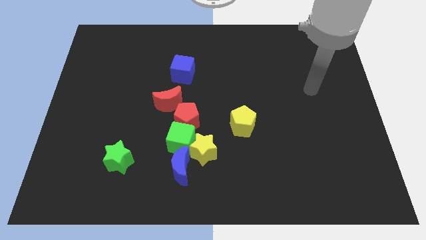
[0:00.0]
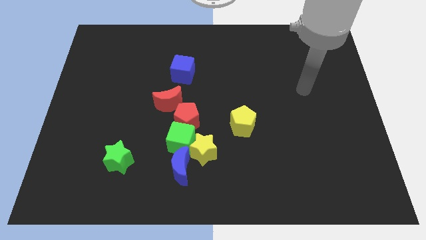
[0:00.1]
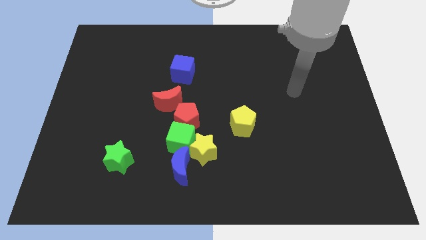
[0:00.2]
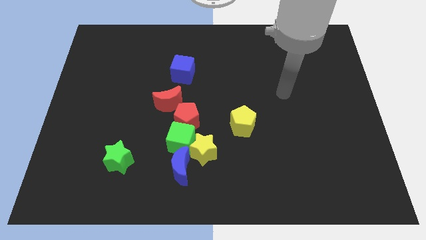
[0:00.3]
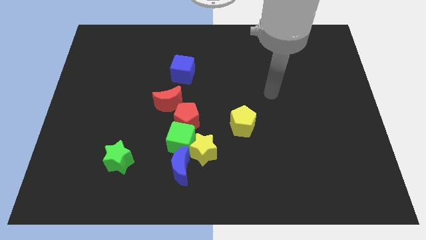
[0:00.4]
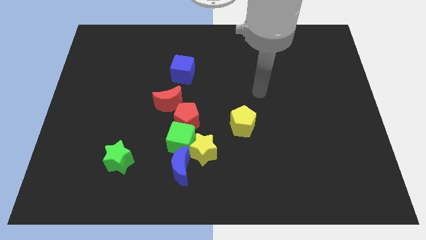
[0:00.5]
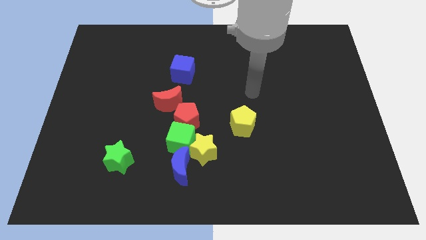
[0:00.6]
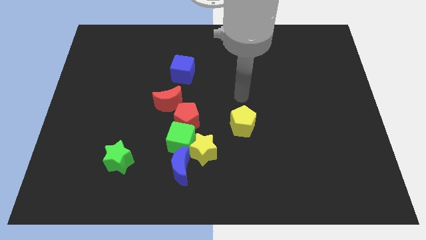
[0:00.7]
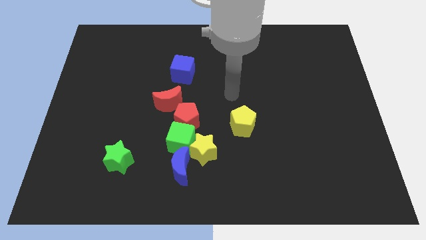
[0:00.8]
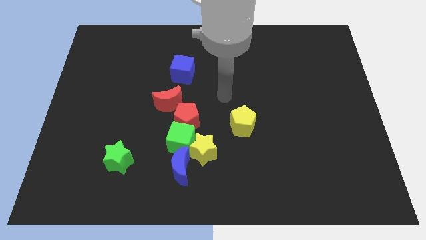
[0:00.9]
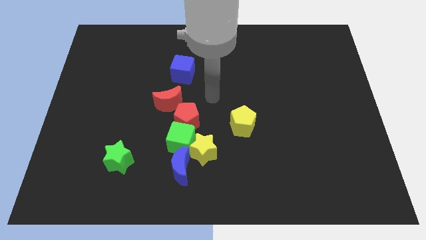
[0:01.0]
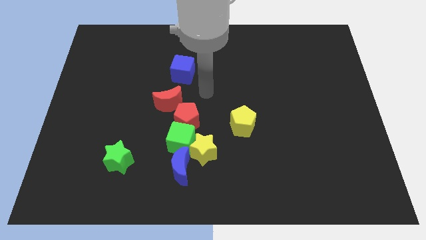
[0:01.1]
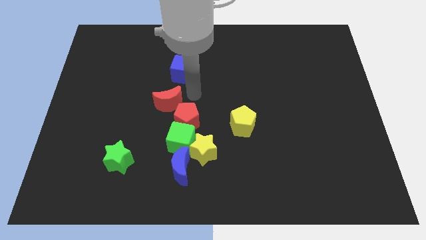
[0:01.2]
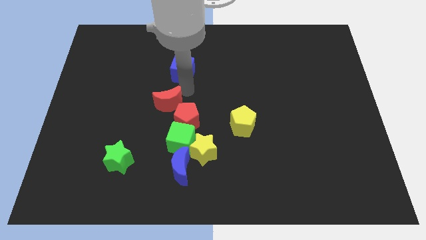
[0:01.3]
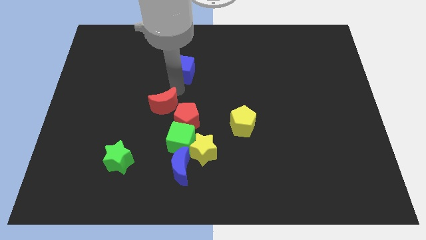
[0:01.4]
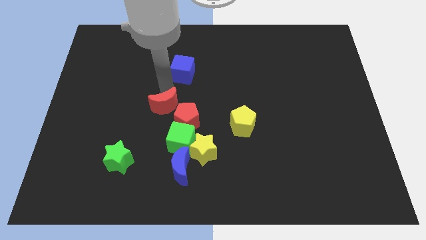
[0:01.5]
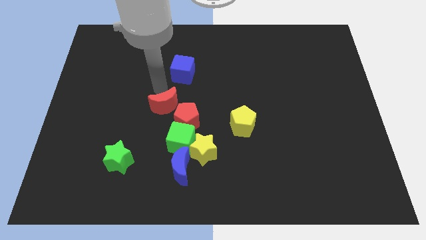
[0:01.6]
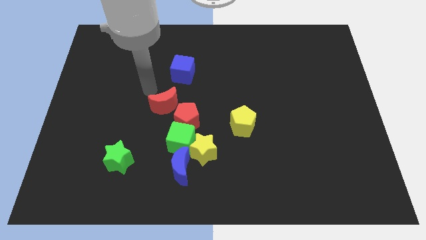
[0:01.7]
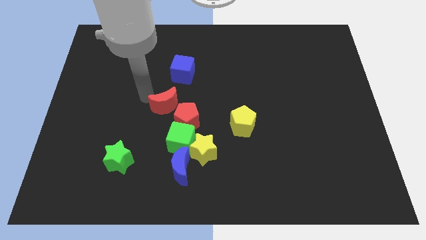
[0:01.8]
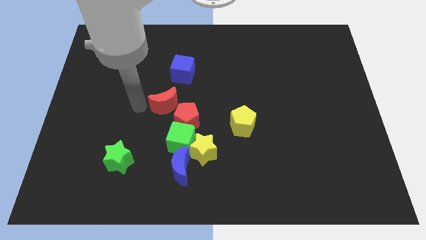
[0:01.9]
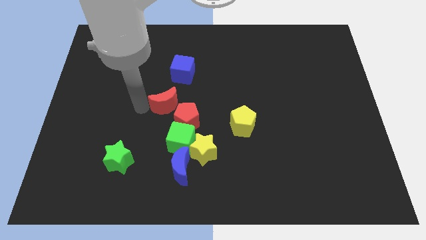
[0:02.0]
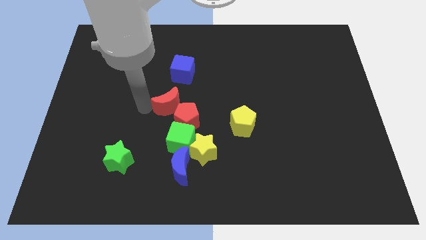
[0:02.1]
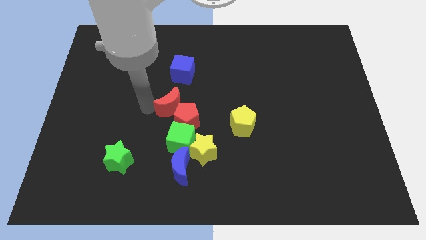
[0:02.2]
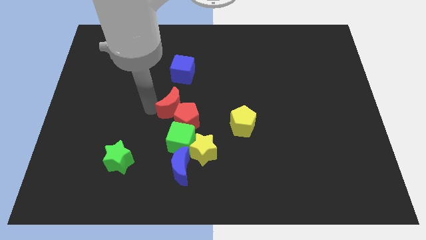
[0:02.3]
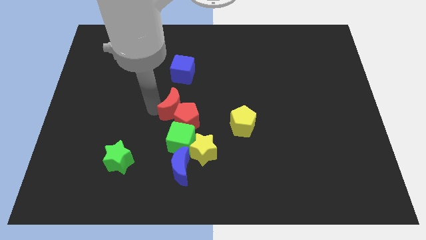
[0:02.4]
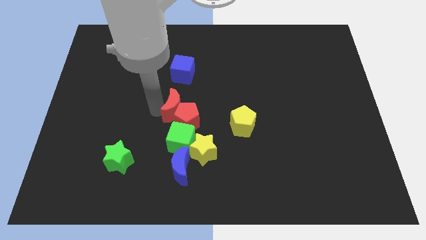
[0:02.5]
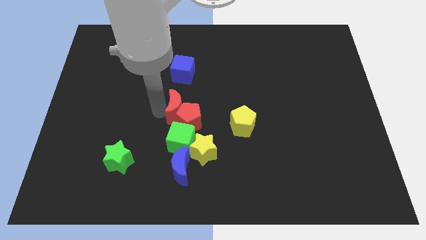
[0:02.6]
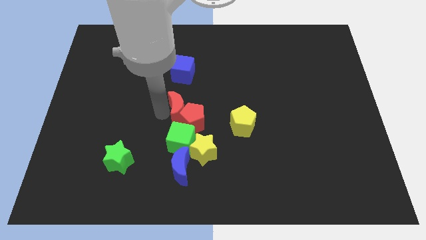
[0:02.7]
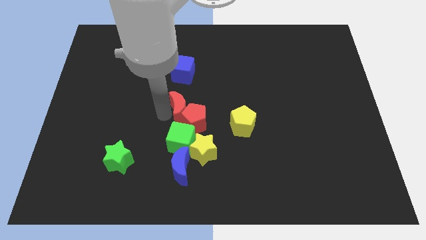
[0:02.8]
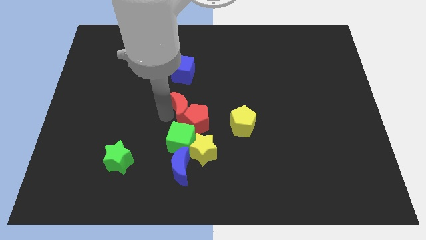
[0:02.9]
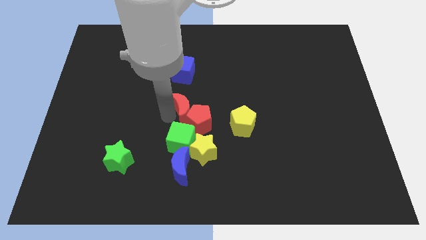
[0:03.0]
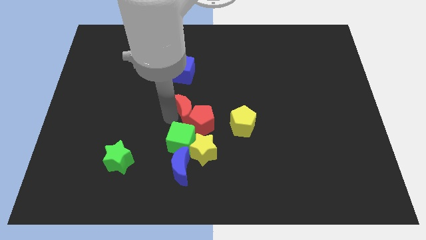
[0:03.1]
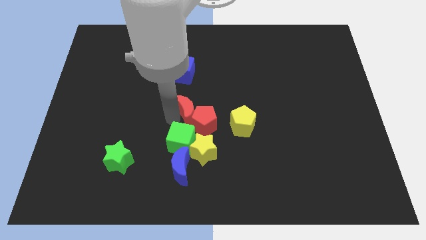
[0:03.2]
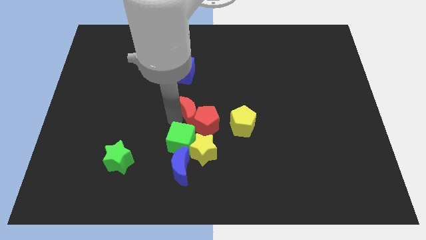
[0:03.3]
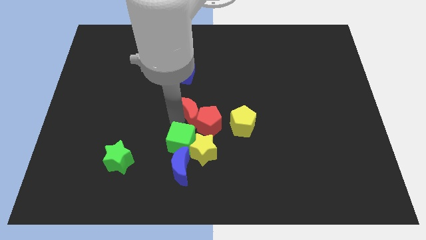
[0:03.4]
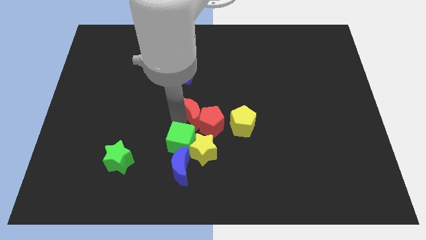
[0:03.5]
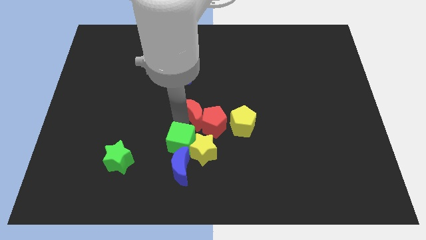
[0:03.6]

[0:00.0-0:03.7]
move the red moon down and then to the right somewhat

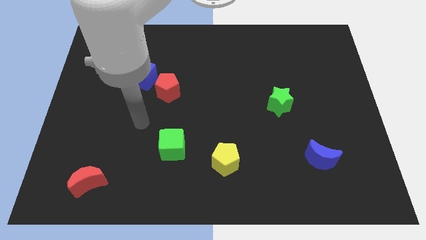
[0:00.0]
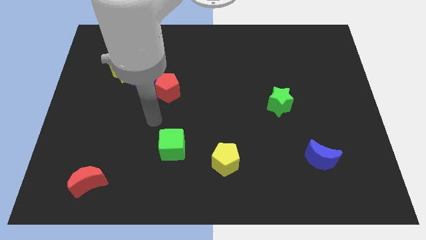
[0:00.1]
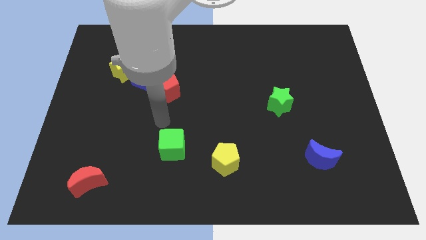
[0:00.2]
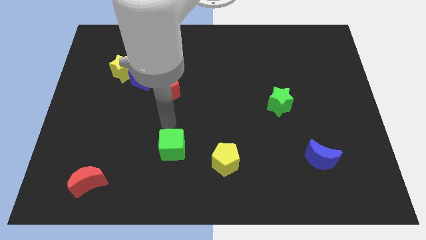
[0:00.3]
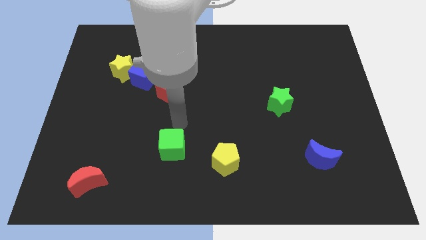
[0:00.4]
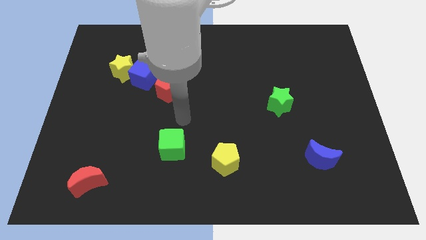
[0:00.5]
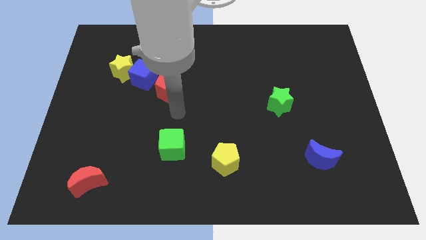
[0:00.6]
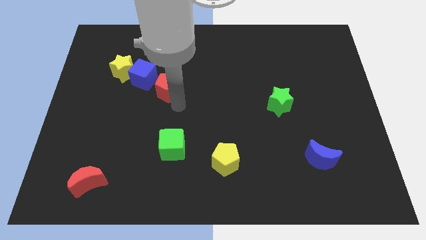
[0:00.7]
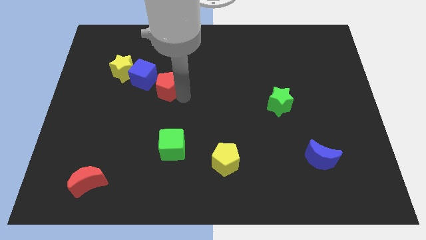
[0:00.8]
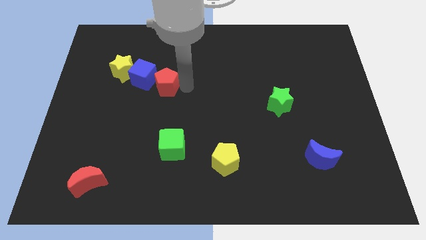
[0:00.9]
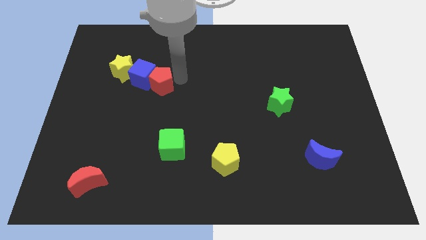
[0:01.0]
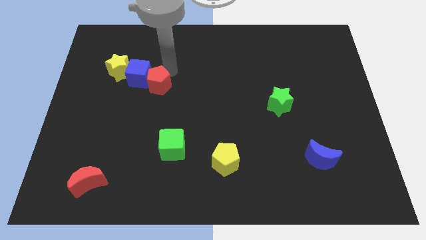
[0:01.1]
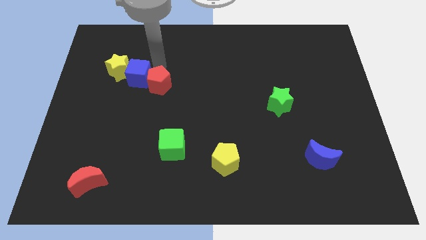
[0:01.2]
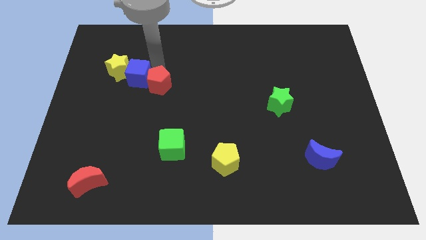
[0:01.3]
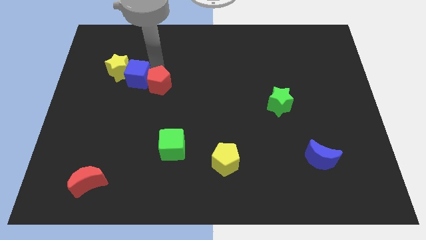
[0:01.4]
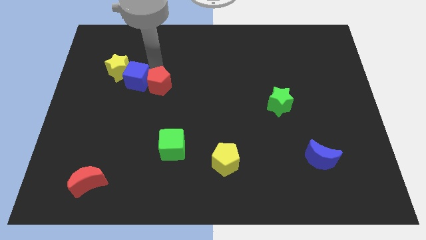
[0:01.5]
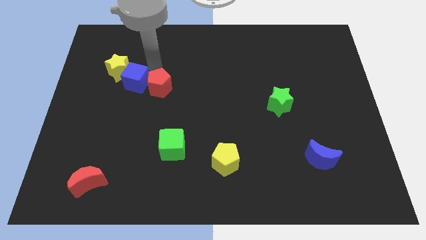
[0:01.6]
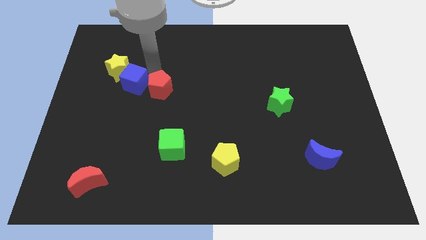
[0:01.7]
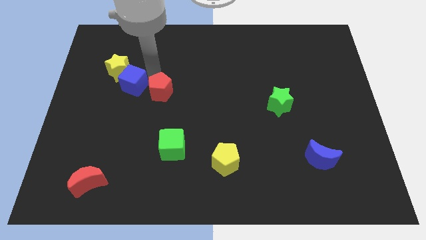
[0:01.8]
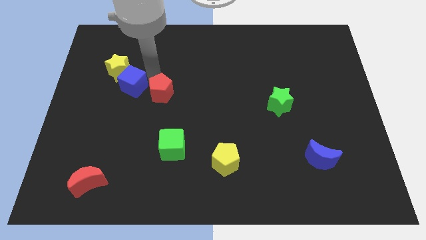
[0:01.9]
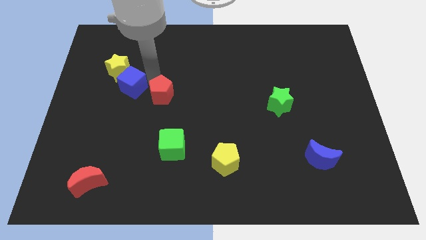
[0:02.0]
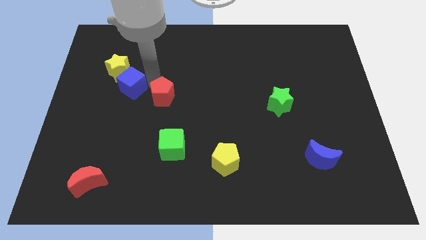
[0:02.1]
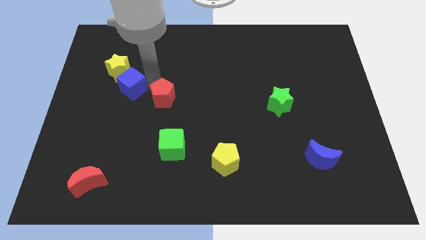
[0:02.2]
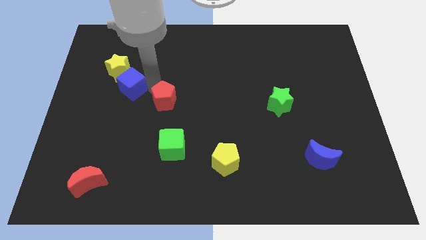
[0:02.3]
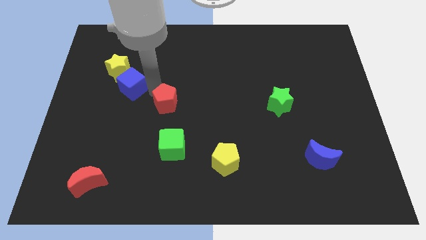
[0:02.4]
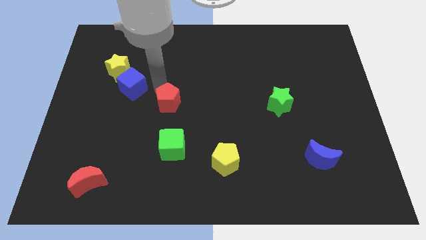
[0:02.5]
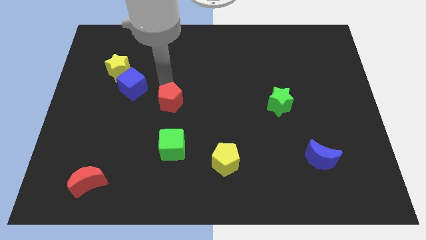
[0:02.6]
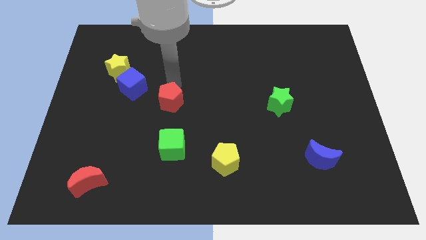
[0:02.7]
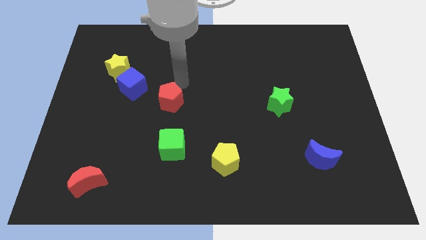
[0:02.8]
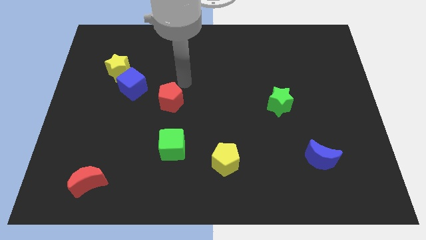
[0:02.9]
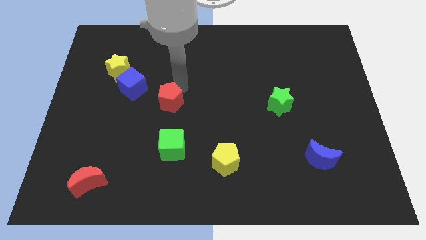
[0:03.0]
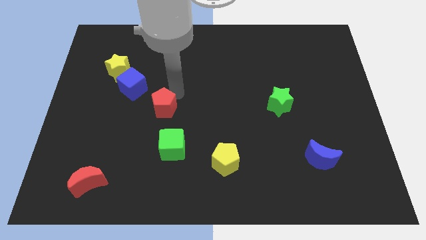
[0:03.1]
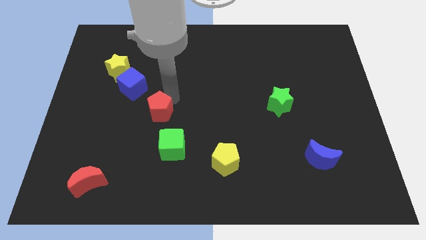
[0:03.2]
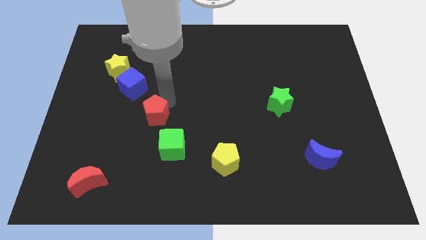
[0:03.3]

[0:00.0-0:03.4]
slide the red pentagon down a little bit

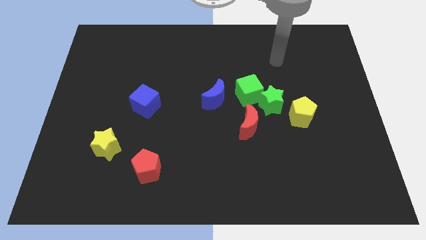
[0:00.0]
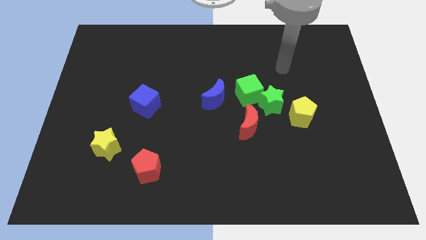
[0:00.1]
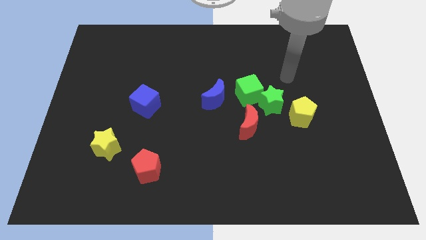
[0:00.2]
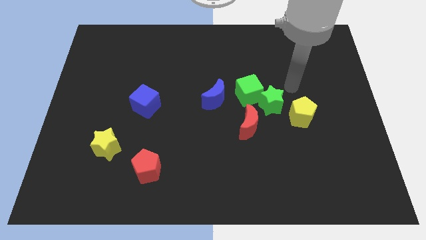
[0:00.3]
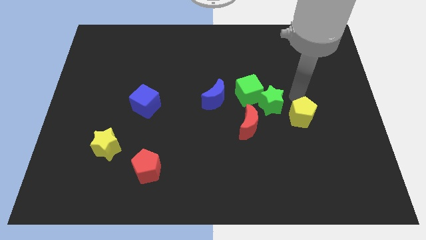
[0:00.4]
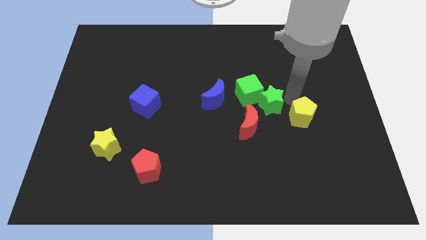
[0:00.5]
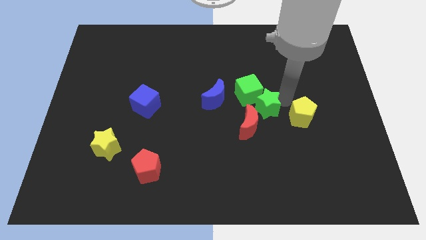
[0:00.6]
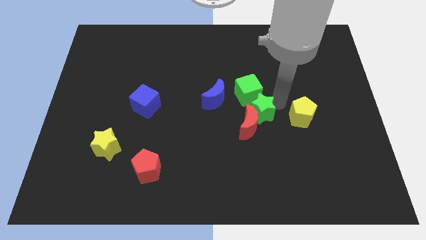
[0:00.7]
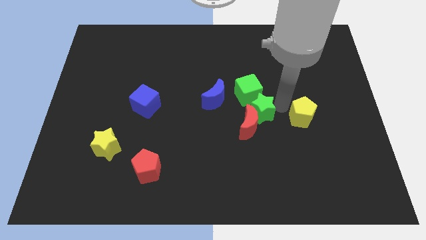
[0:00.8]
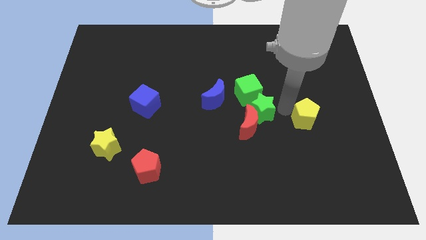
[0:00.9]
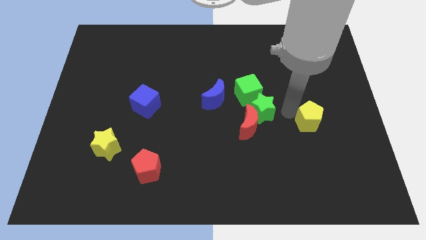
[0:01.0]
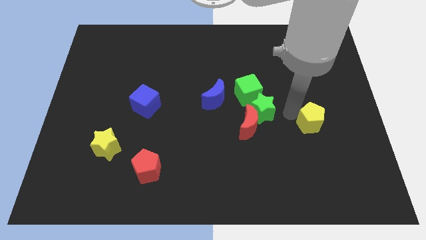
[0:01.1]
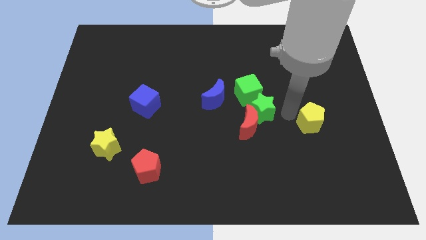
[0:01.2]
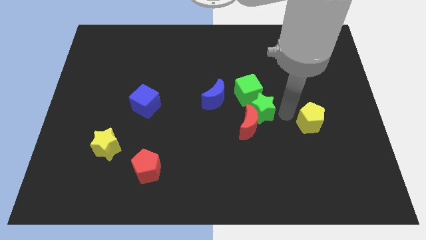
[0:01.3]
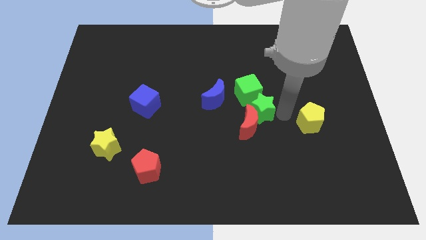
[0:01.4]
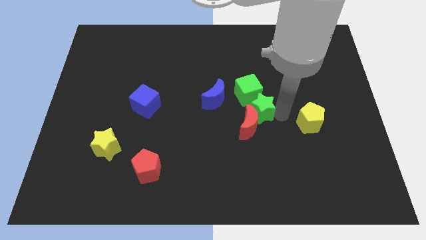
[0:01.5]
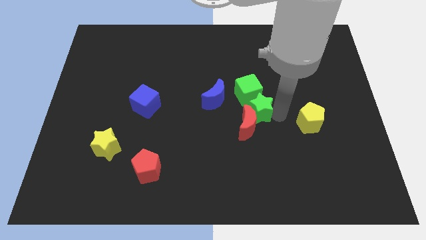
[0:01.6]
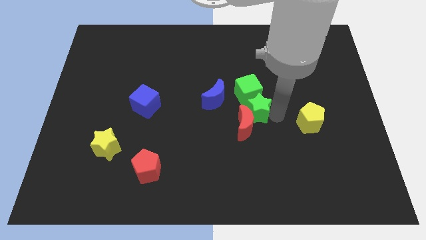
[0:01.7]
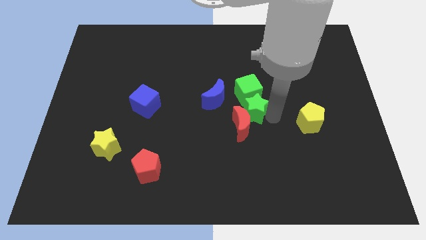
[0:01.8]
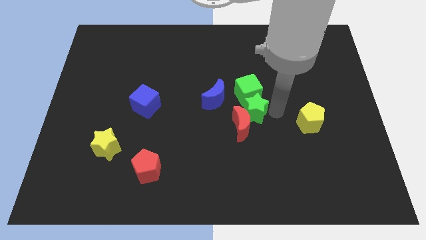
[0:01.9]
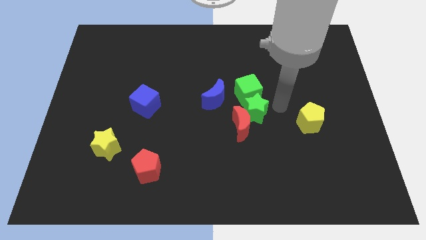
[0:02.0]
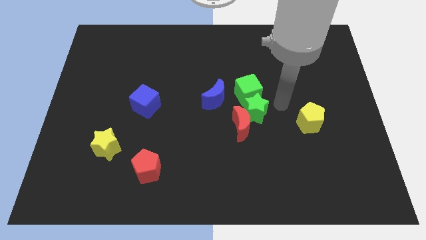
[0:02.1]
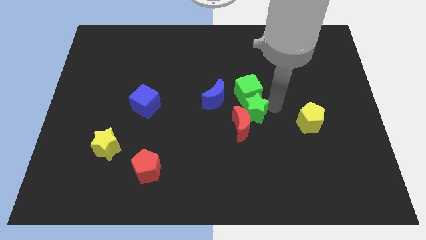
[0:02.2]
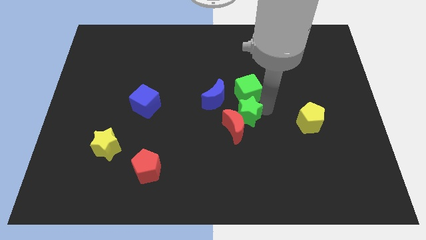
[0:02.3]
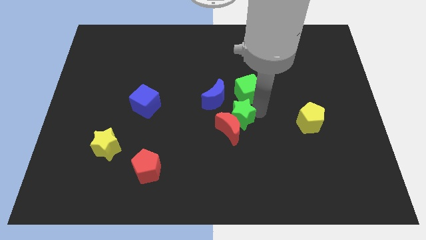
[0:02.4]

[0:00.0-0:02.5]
slide the green star down and to the left diagonally a bit
